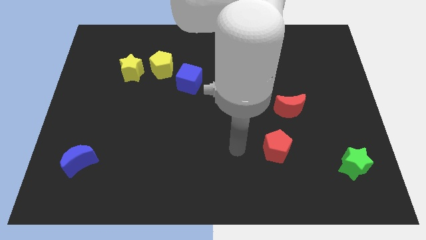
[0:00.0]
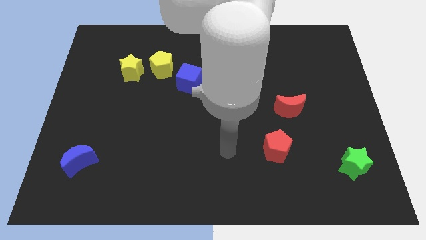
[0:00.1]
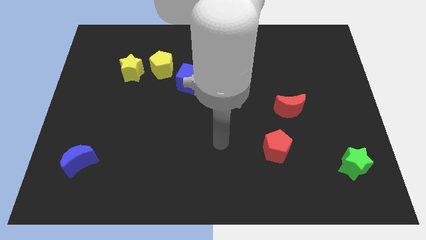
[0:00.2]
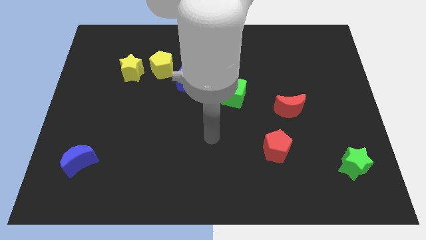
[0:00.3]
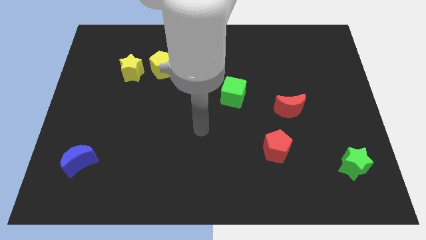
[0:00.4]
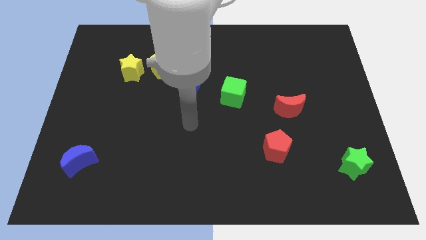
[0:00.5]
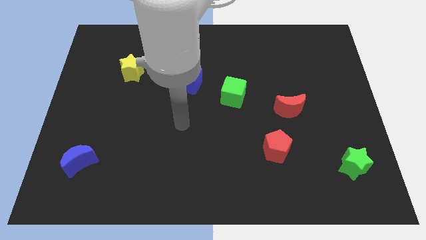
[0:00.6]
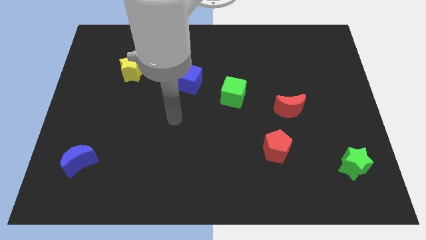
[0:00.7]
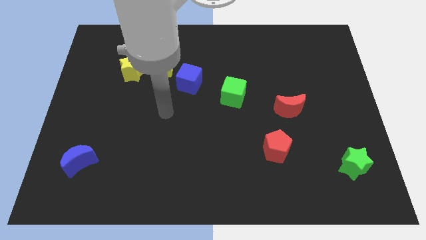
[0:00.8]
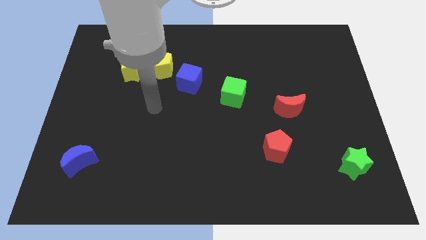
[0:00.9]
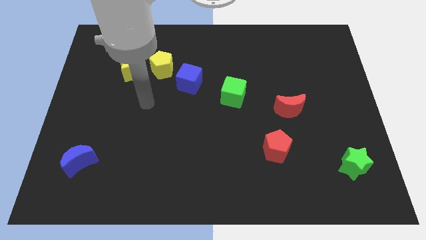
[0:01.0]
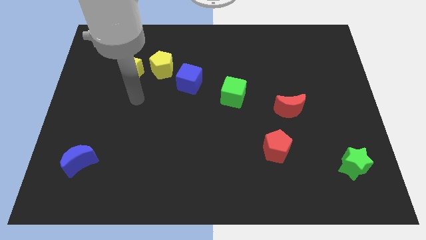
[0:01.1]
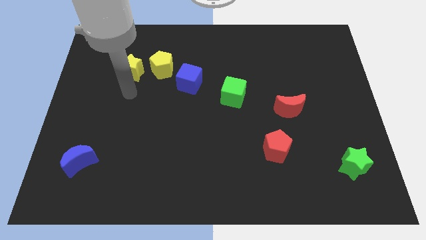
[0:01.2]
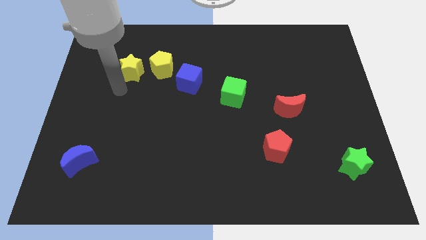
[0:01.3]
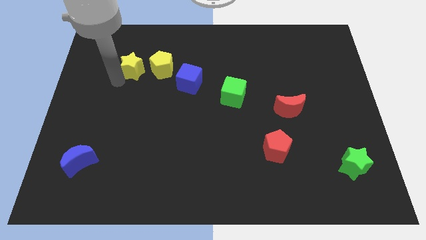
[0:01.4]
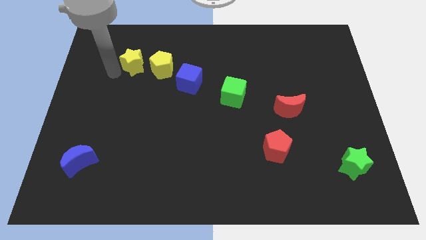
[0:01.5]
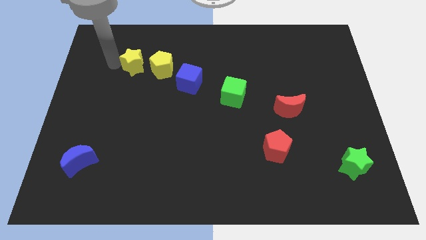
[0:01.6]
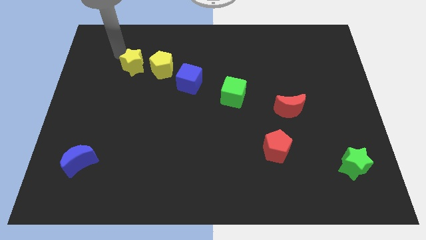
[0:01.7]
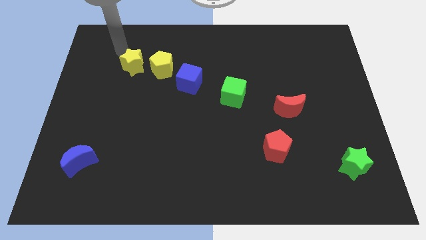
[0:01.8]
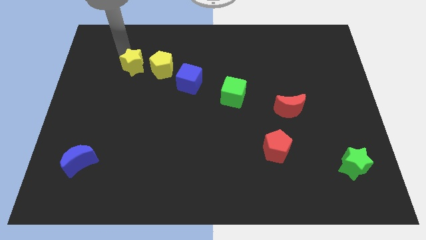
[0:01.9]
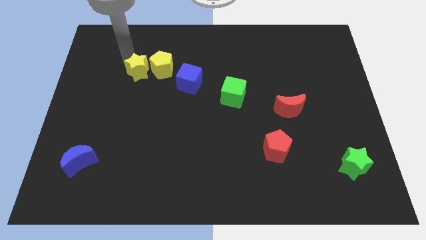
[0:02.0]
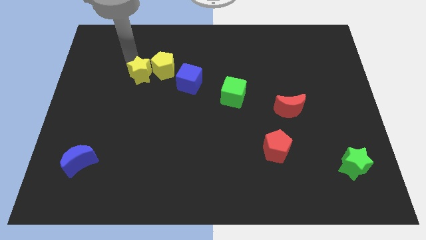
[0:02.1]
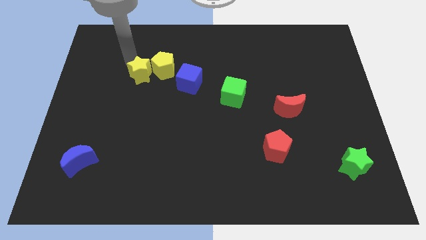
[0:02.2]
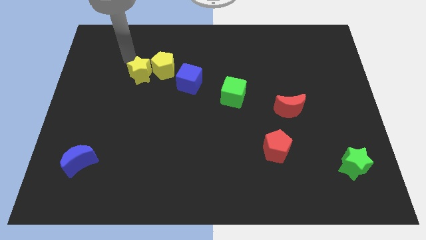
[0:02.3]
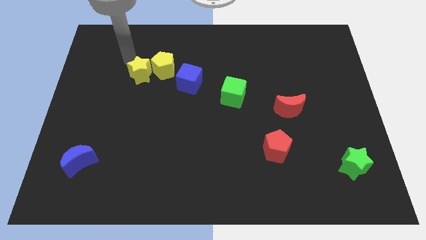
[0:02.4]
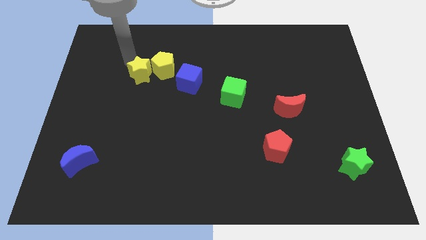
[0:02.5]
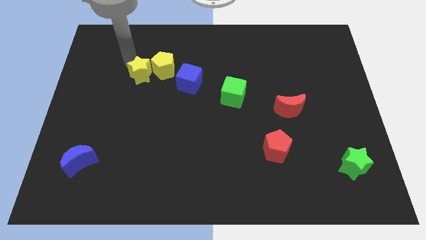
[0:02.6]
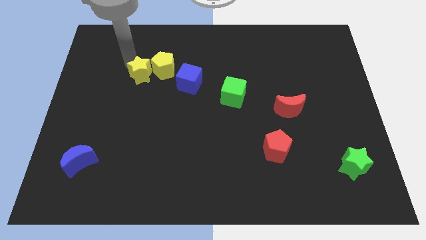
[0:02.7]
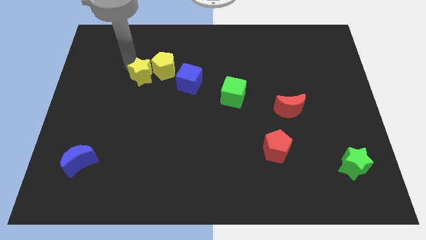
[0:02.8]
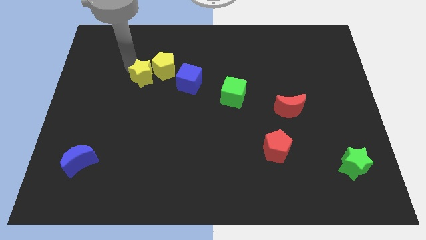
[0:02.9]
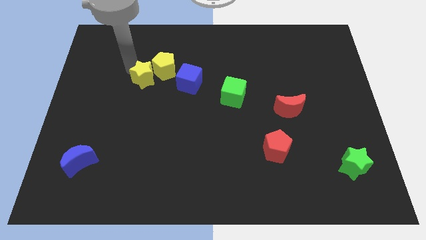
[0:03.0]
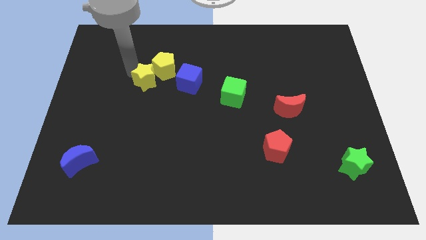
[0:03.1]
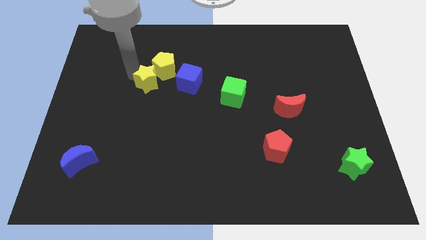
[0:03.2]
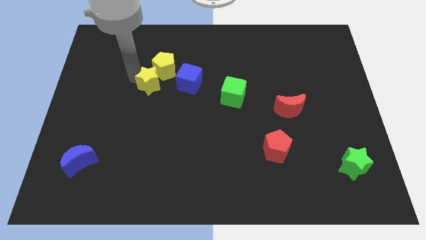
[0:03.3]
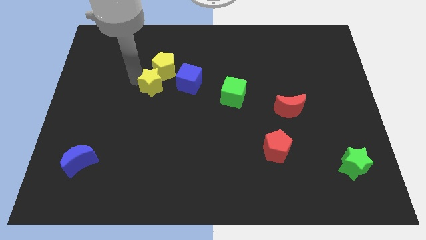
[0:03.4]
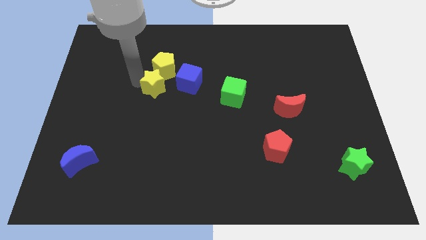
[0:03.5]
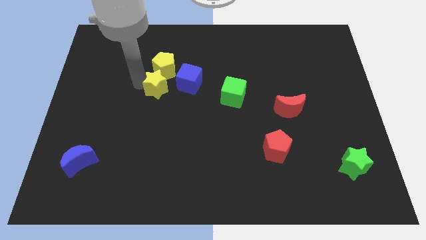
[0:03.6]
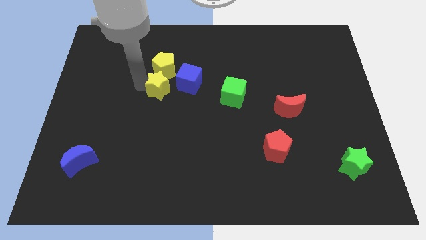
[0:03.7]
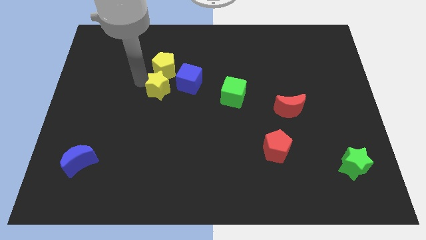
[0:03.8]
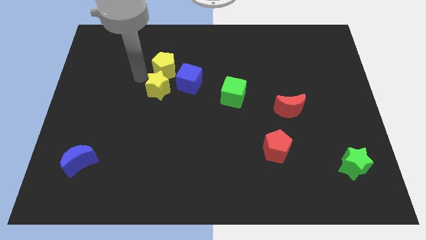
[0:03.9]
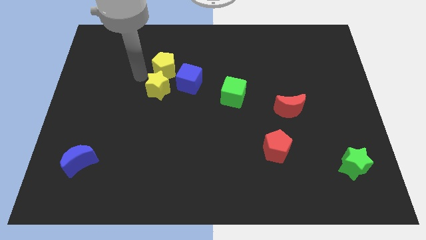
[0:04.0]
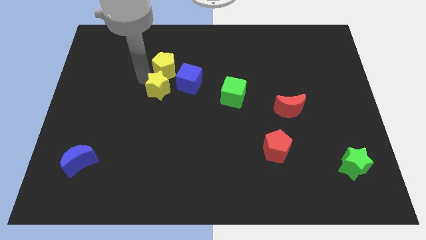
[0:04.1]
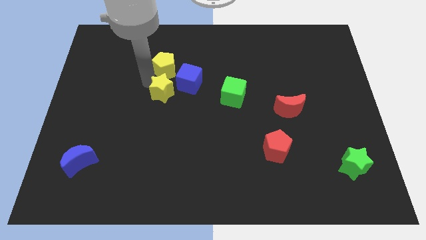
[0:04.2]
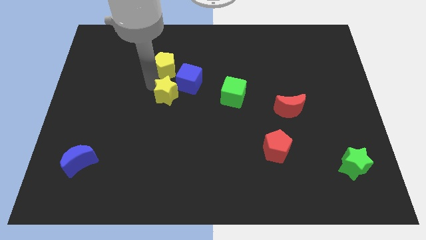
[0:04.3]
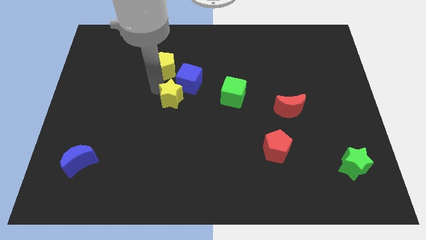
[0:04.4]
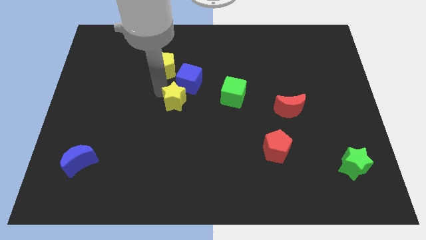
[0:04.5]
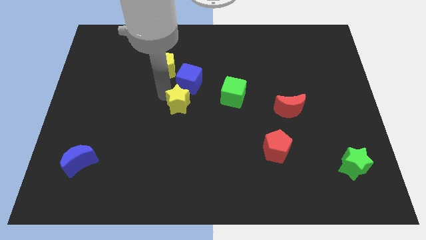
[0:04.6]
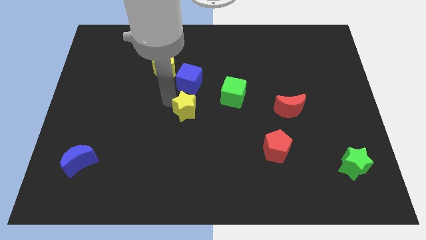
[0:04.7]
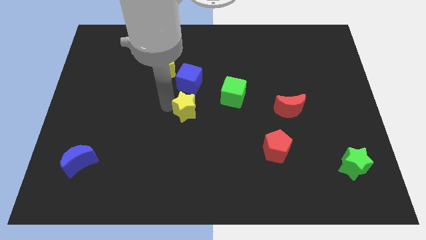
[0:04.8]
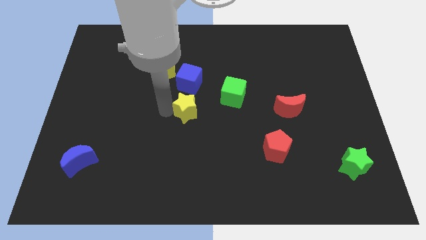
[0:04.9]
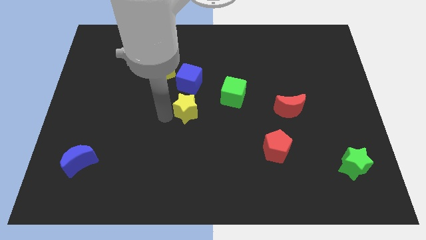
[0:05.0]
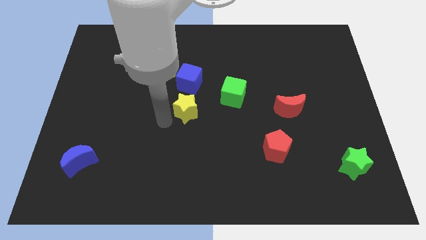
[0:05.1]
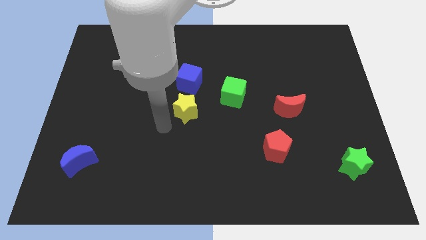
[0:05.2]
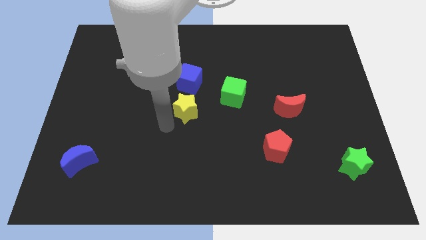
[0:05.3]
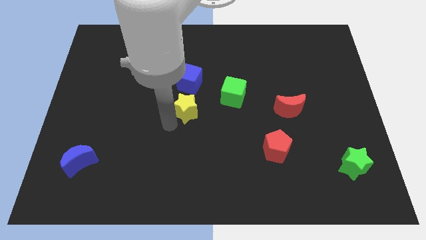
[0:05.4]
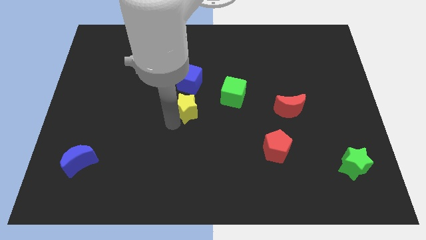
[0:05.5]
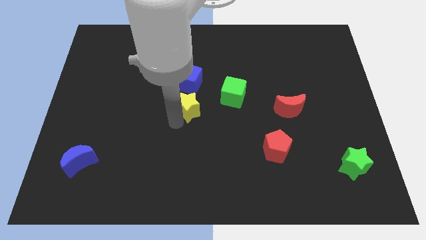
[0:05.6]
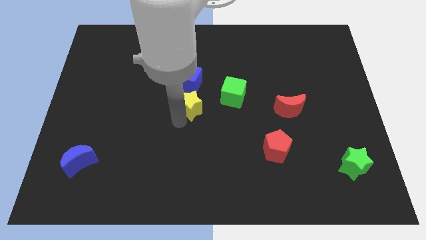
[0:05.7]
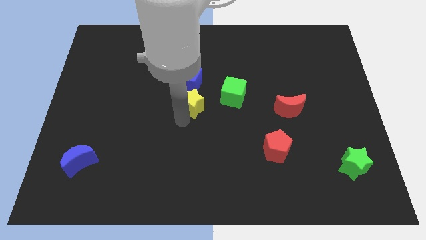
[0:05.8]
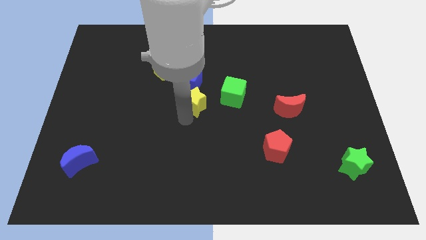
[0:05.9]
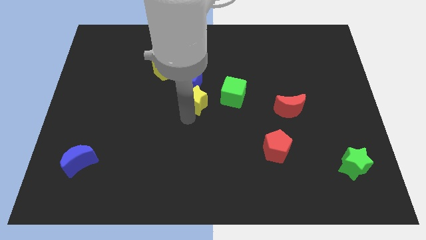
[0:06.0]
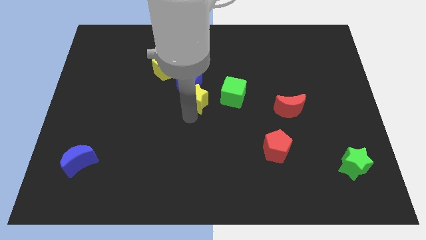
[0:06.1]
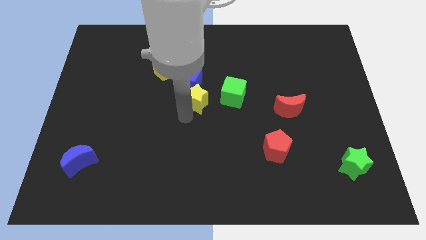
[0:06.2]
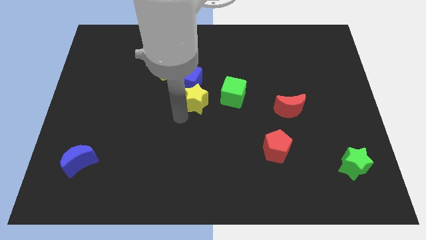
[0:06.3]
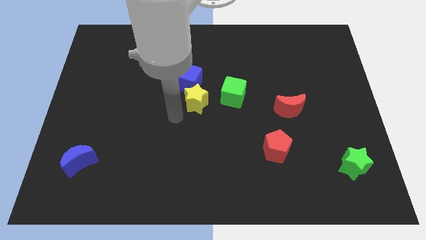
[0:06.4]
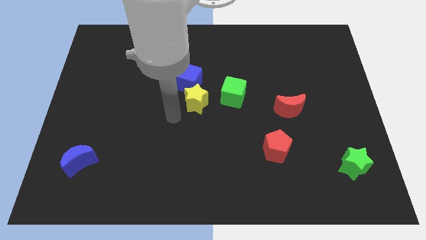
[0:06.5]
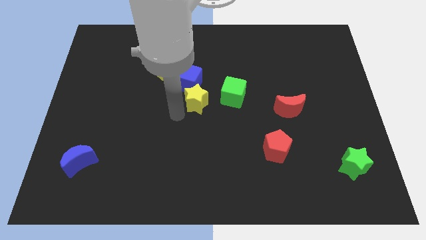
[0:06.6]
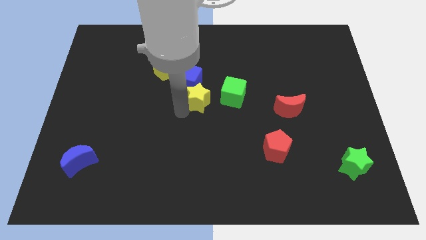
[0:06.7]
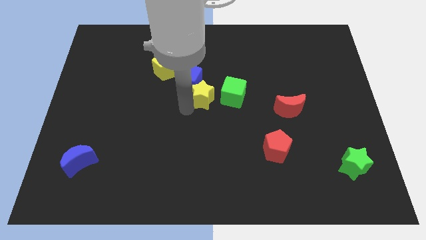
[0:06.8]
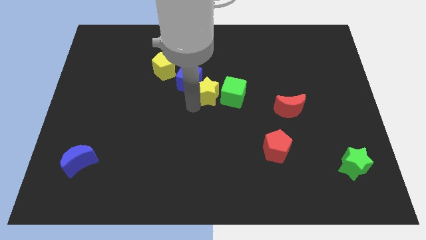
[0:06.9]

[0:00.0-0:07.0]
move the yellow star to the top left side of the green cube
